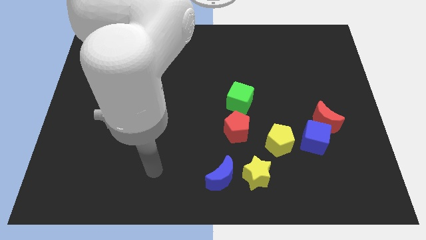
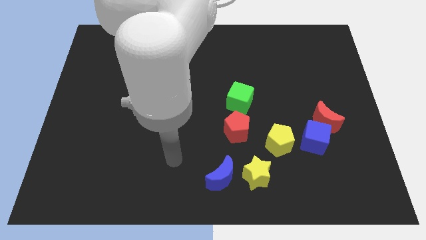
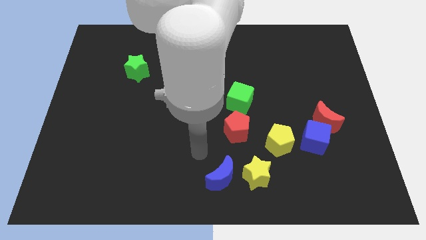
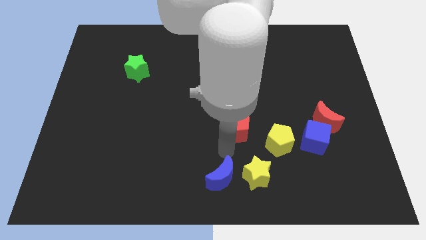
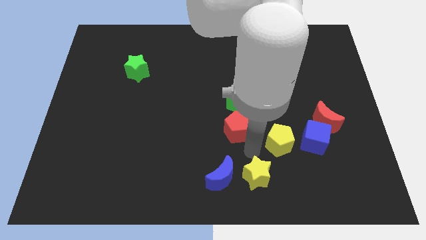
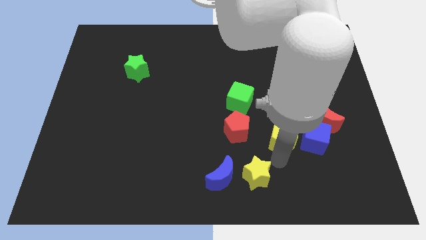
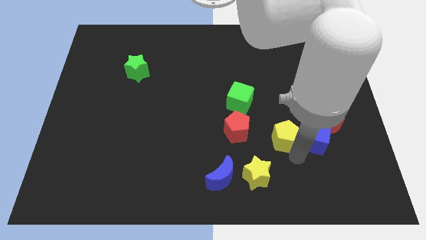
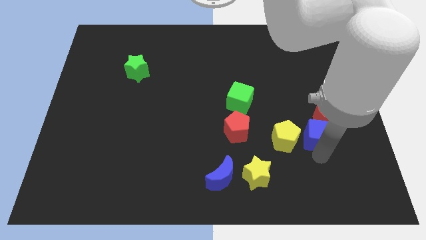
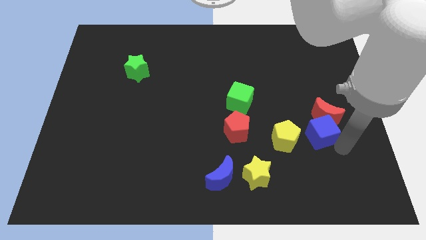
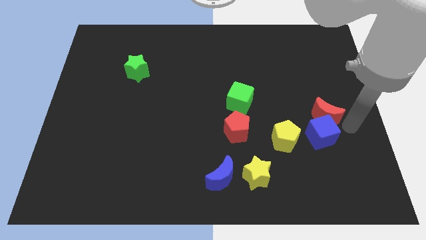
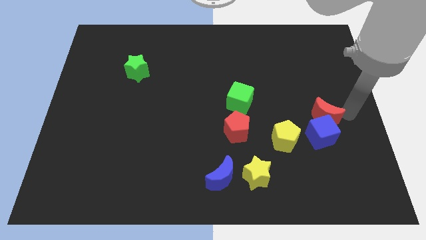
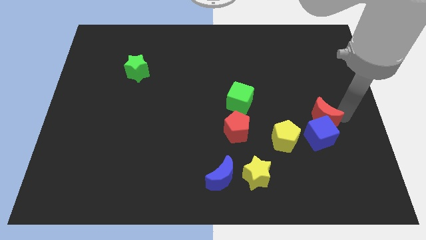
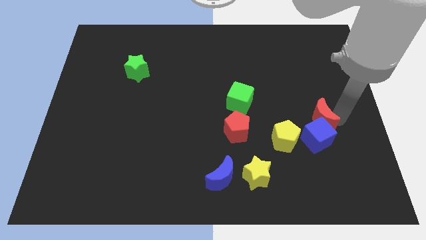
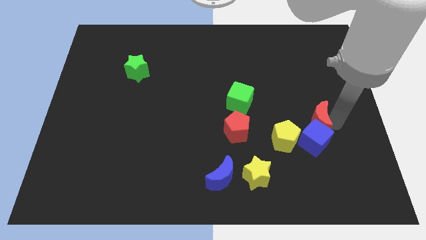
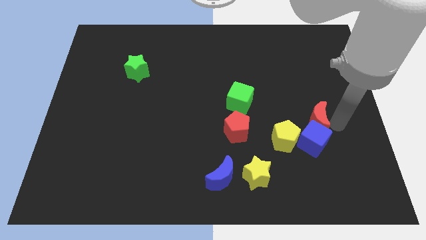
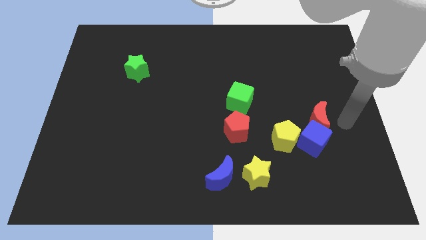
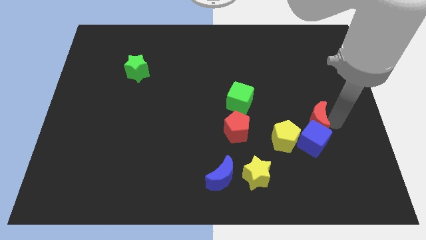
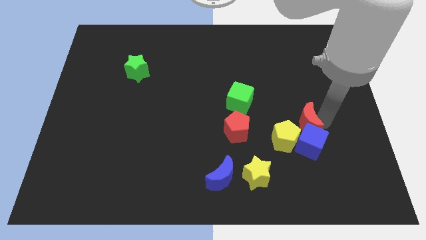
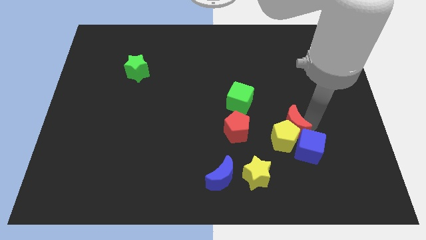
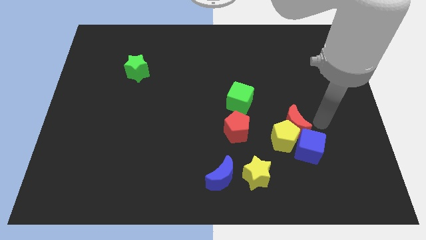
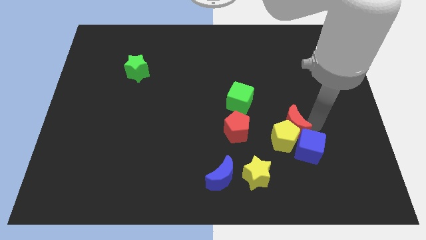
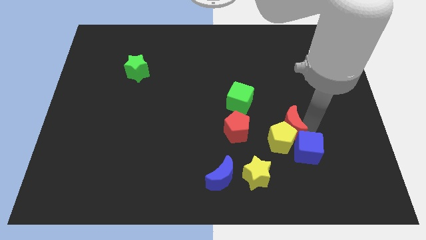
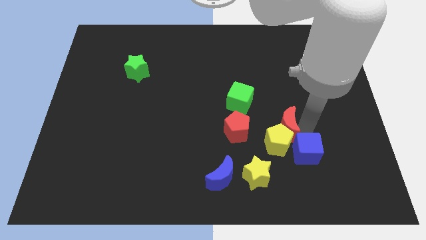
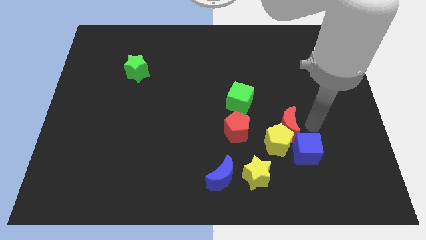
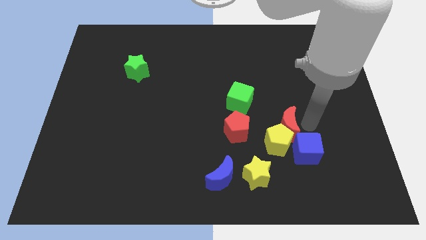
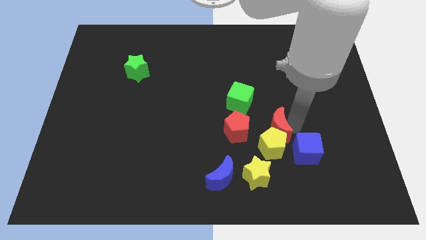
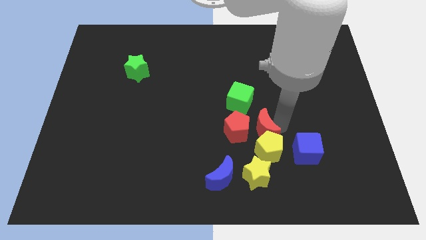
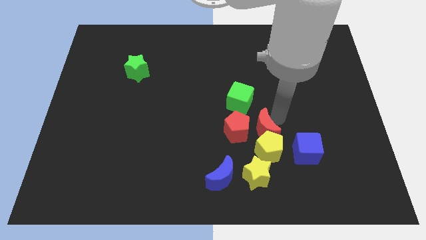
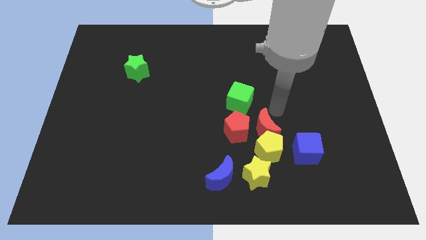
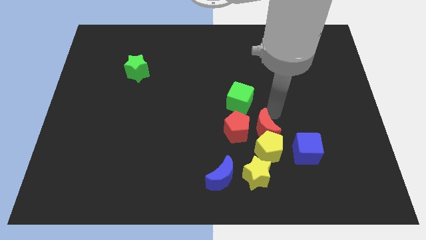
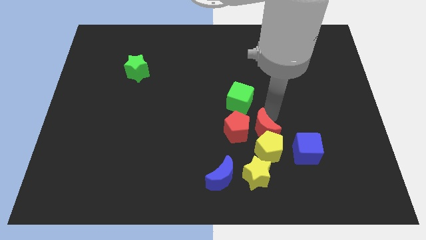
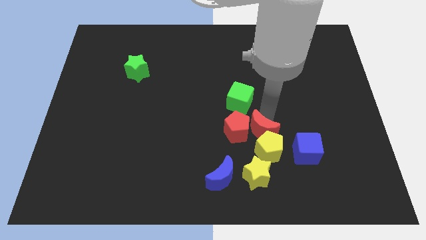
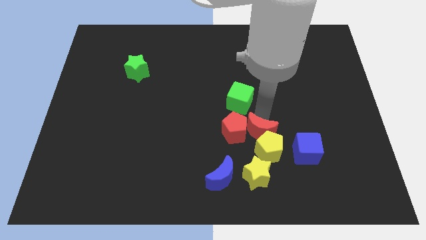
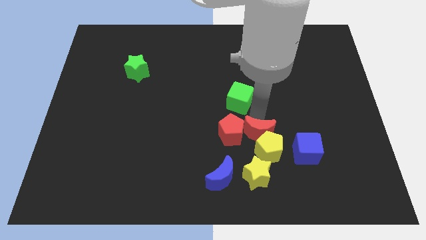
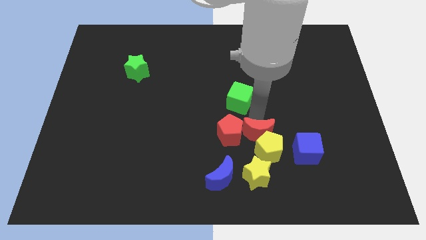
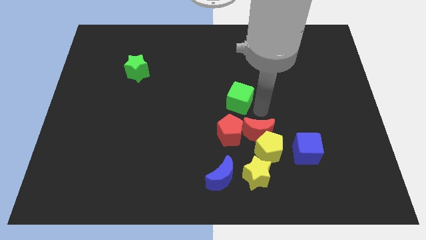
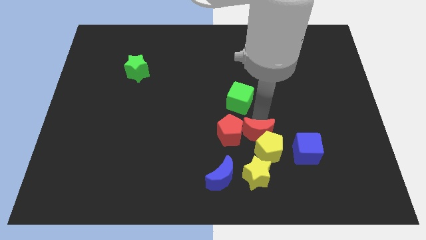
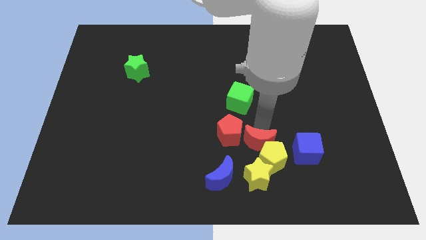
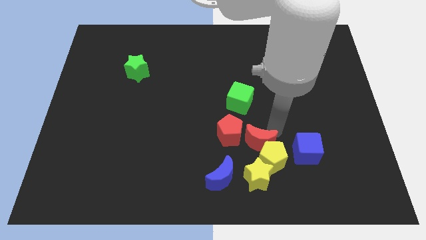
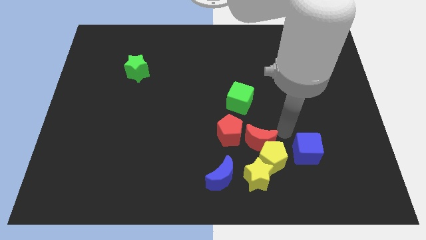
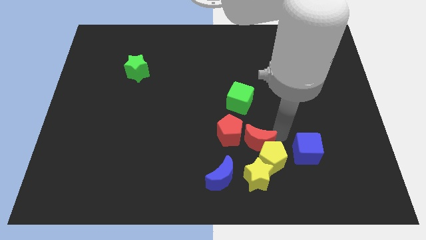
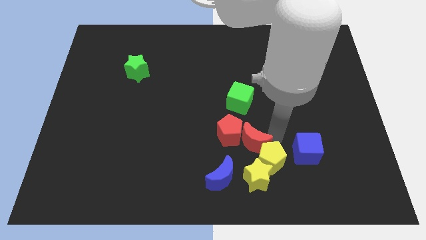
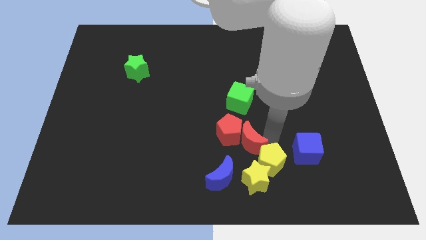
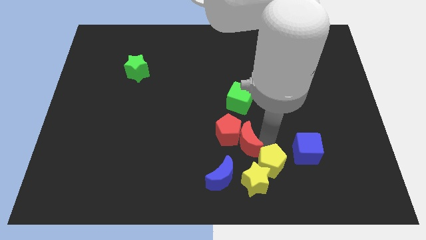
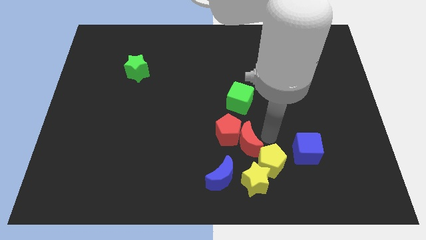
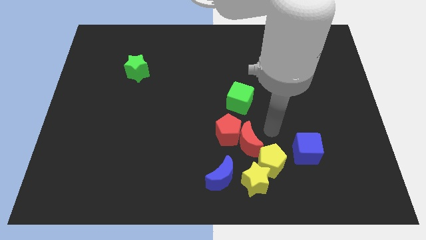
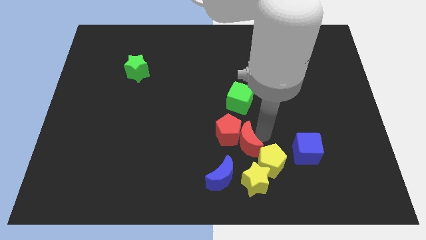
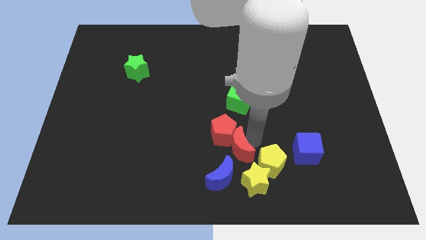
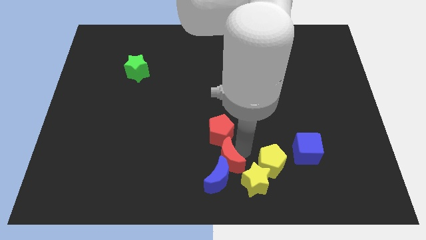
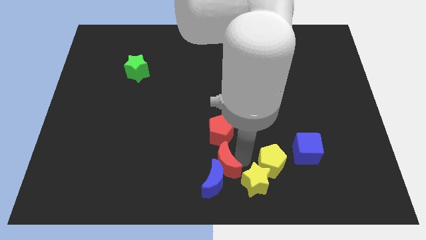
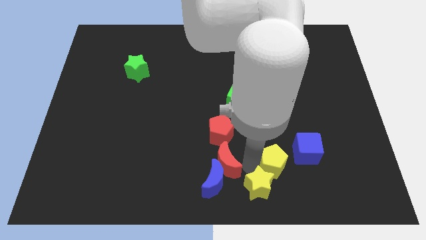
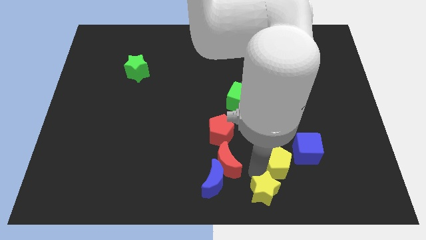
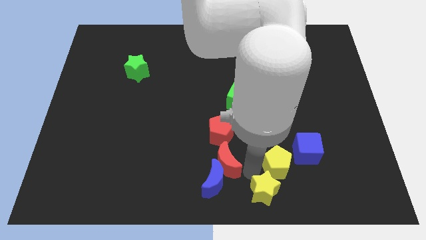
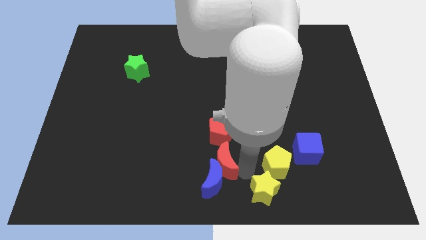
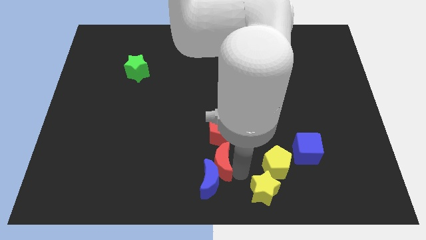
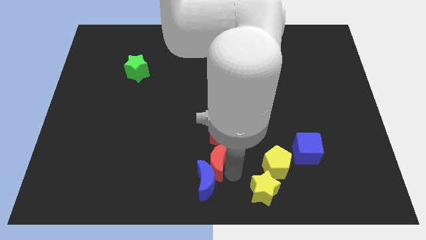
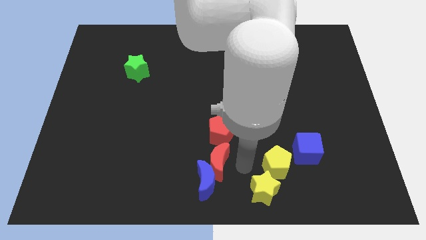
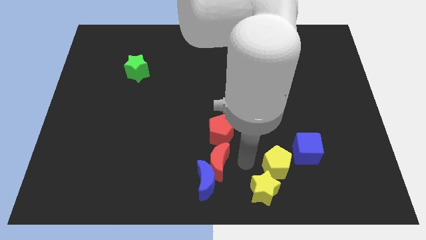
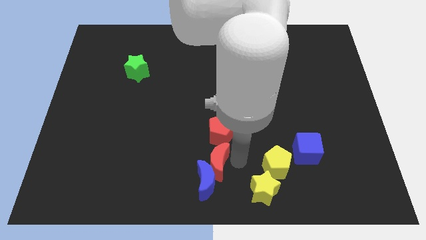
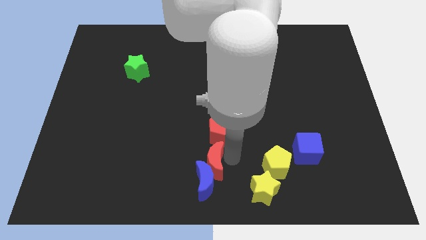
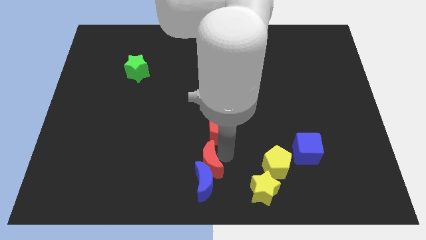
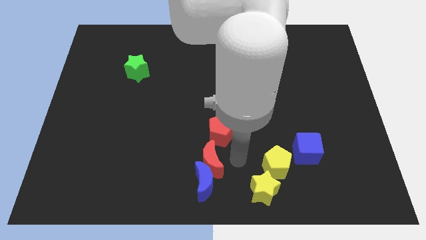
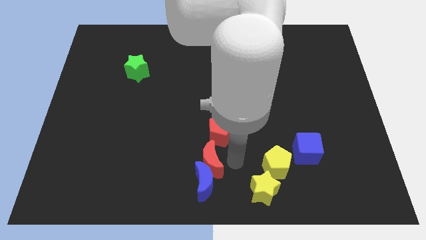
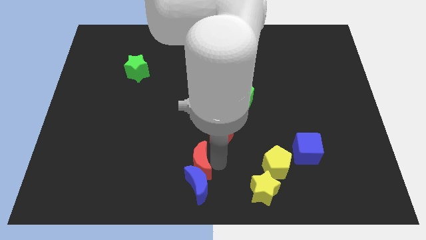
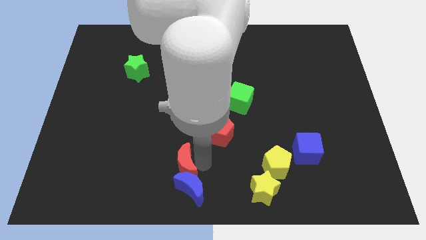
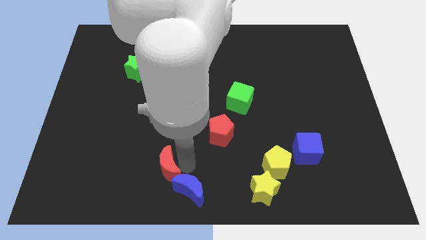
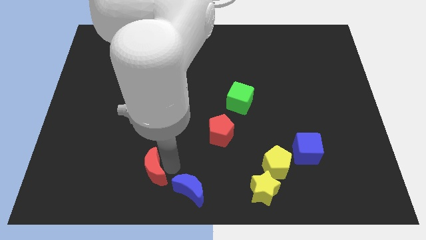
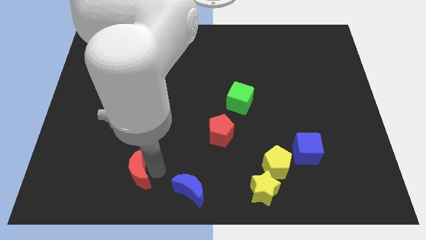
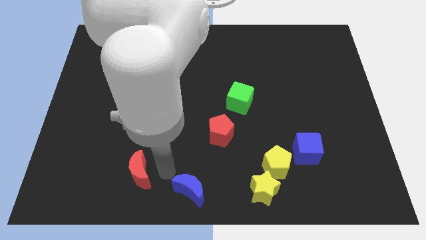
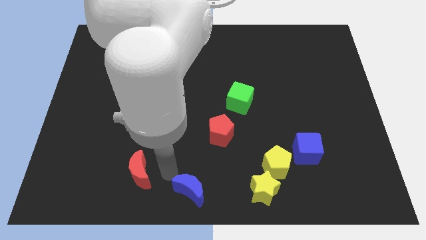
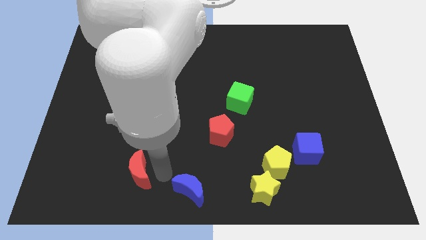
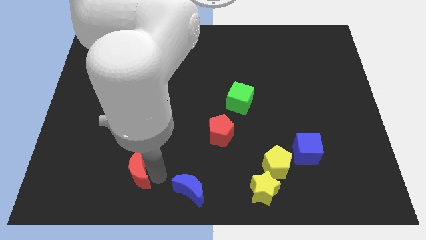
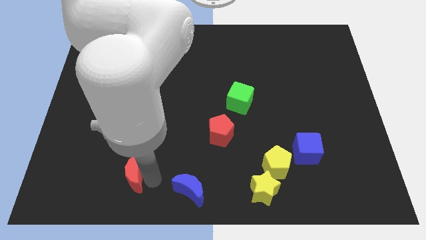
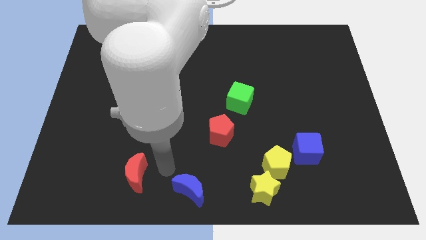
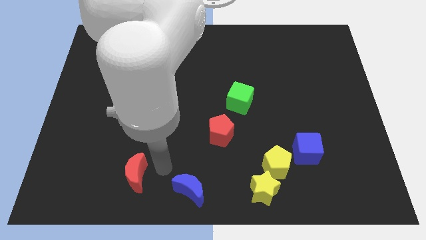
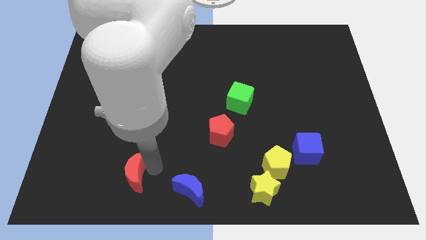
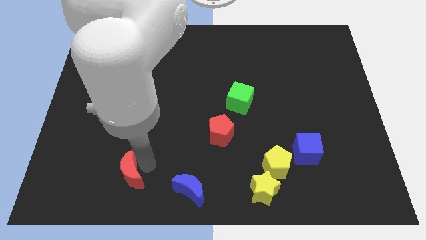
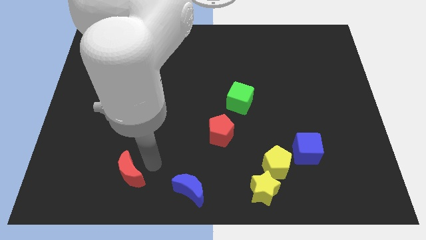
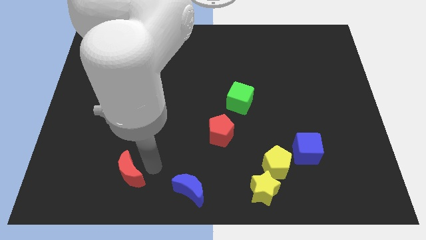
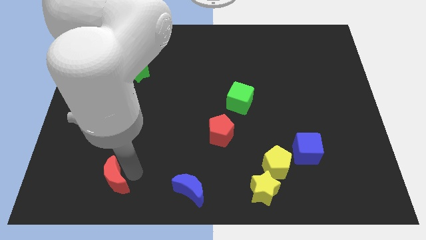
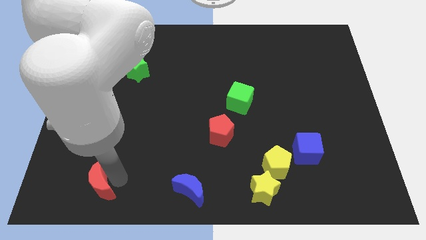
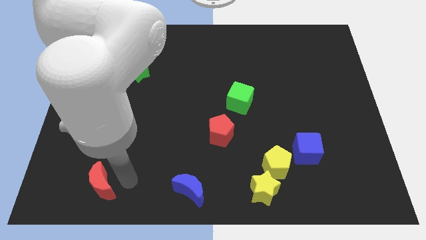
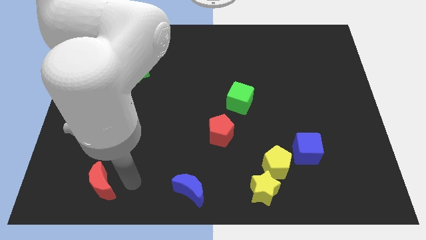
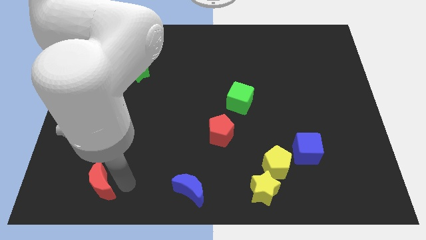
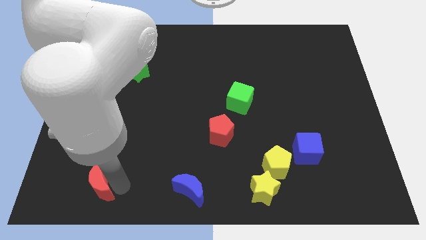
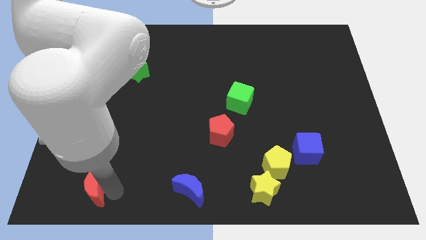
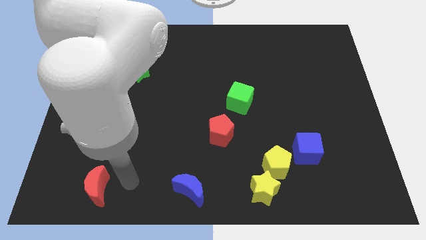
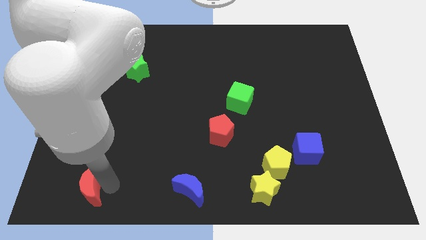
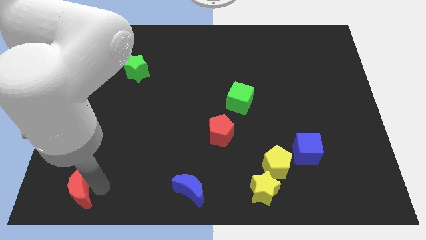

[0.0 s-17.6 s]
push the red moon to the bottom left corner
